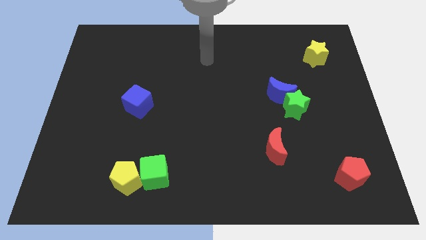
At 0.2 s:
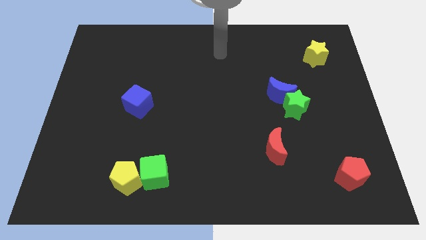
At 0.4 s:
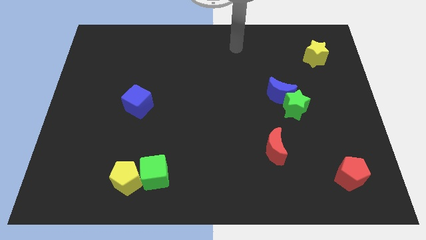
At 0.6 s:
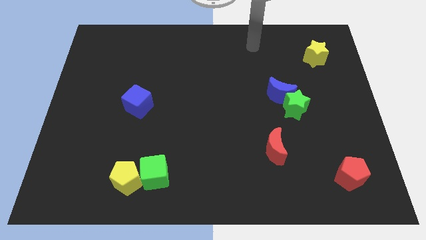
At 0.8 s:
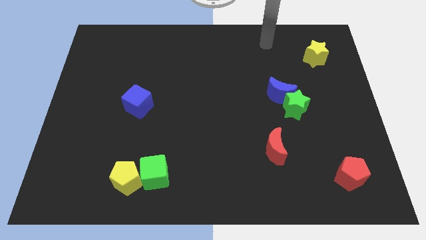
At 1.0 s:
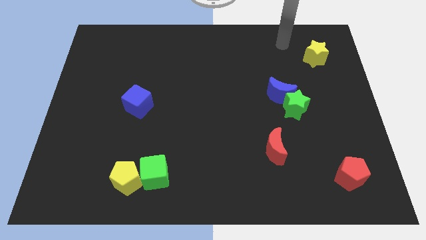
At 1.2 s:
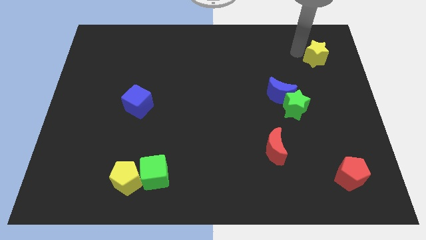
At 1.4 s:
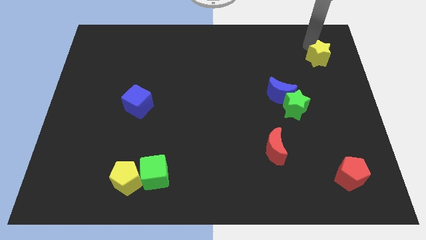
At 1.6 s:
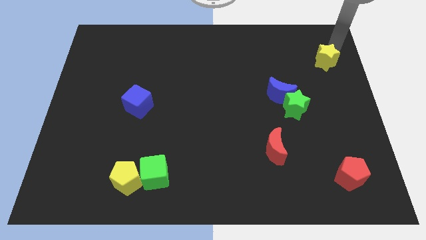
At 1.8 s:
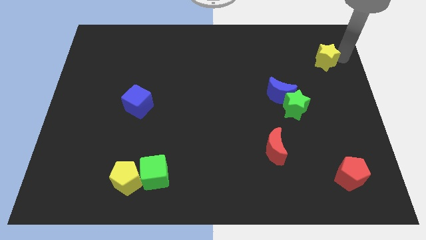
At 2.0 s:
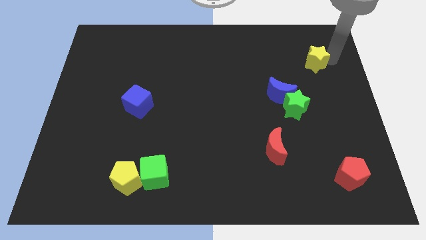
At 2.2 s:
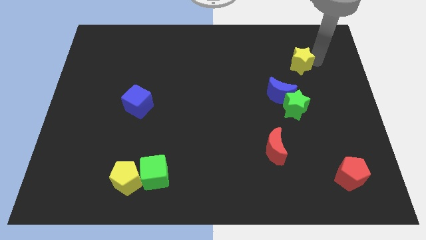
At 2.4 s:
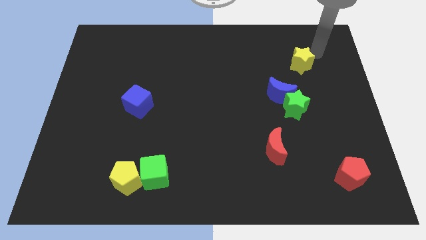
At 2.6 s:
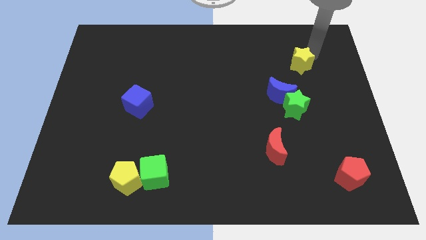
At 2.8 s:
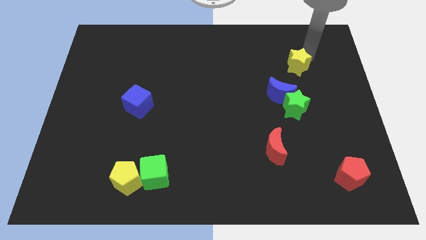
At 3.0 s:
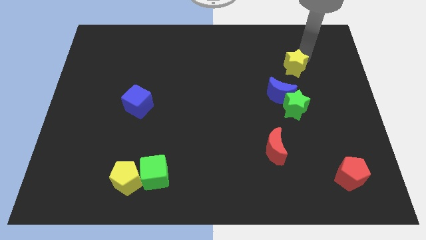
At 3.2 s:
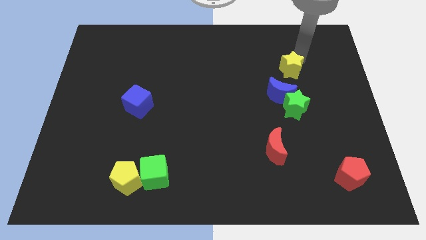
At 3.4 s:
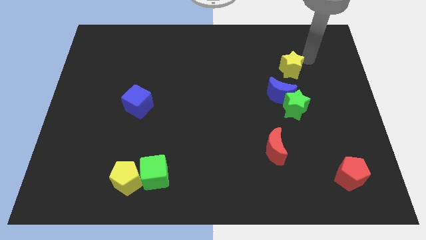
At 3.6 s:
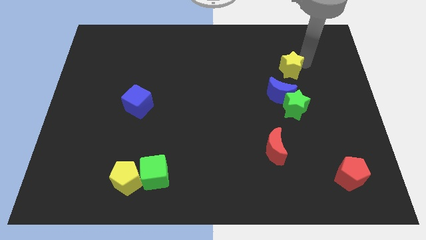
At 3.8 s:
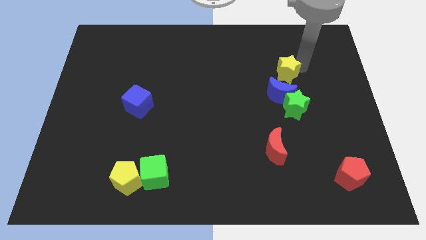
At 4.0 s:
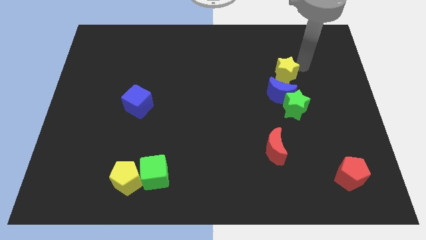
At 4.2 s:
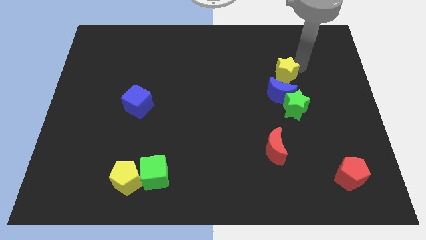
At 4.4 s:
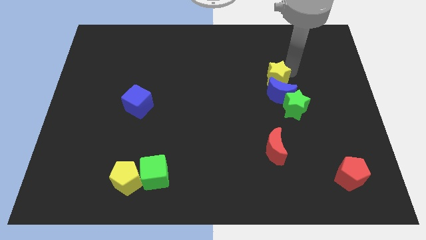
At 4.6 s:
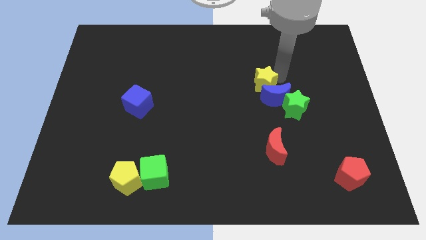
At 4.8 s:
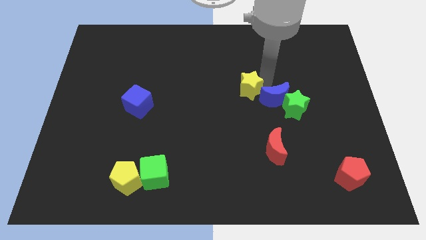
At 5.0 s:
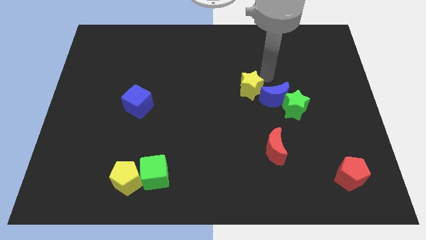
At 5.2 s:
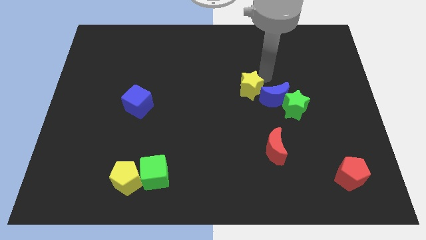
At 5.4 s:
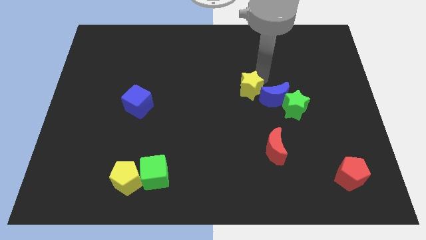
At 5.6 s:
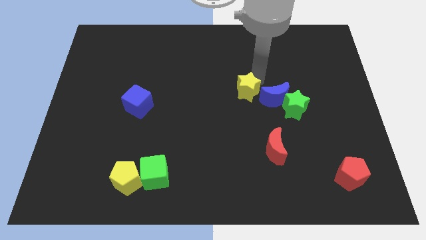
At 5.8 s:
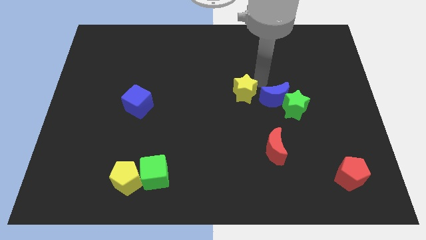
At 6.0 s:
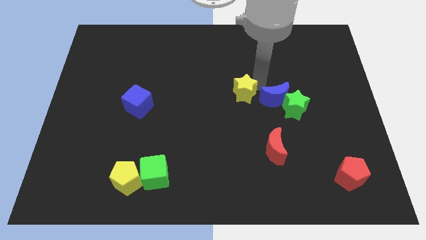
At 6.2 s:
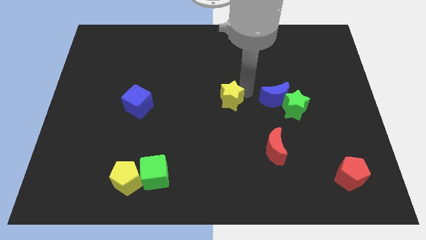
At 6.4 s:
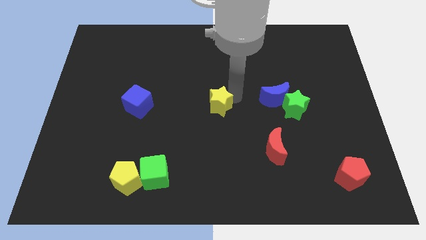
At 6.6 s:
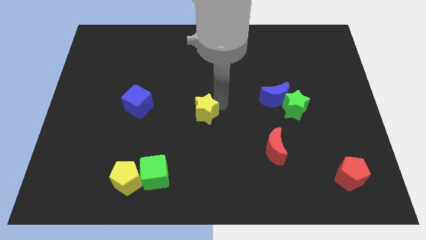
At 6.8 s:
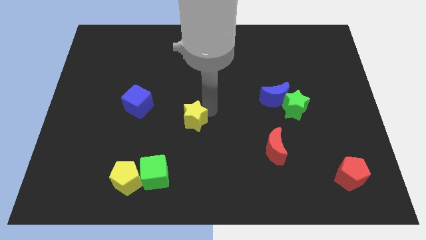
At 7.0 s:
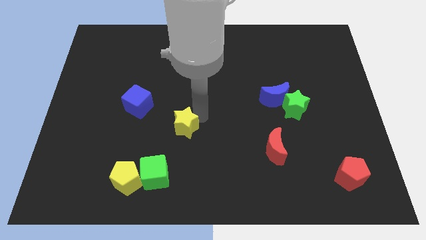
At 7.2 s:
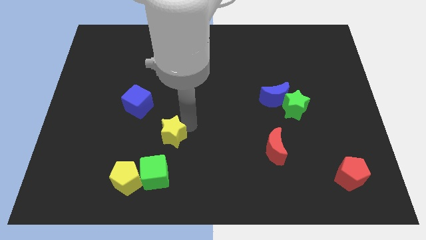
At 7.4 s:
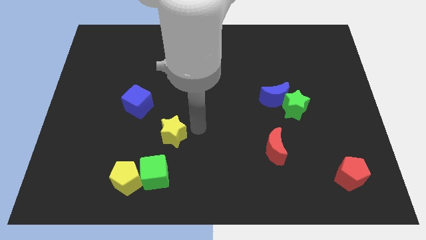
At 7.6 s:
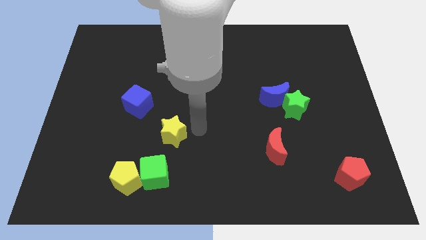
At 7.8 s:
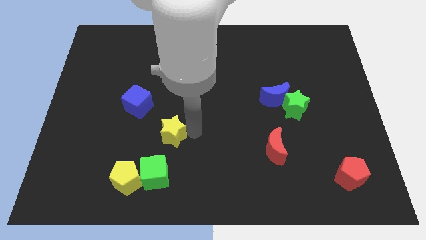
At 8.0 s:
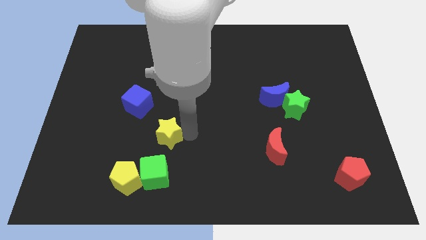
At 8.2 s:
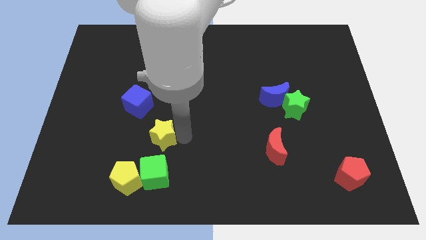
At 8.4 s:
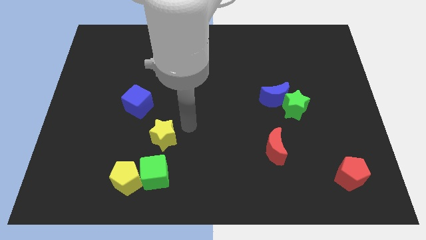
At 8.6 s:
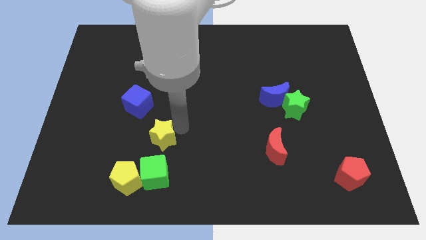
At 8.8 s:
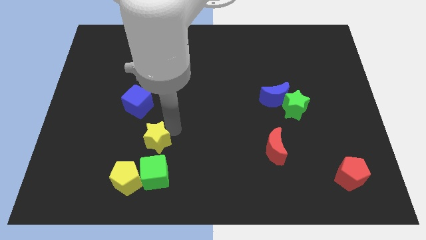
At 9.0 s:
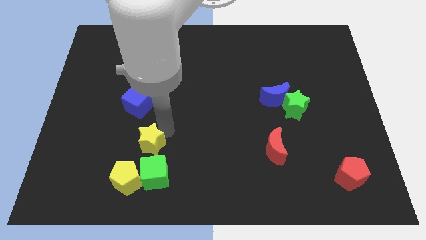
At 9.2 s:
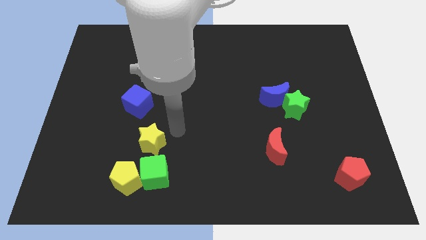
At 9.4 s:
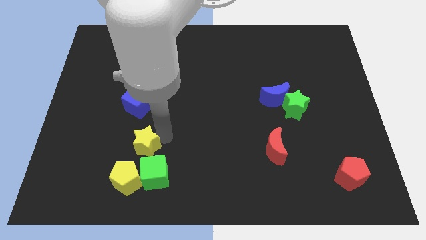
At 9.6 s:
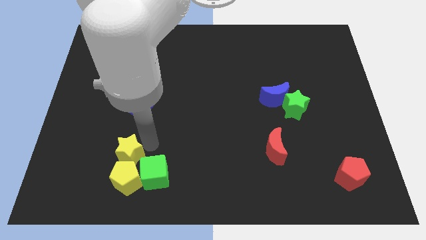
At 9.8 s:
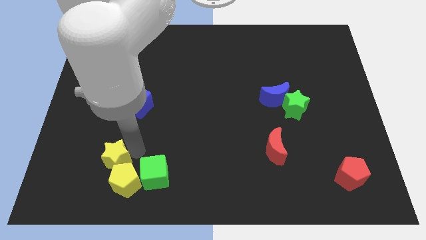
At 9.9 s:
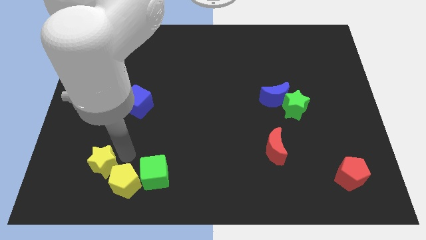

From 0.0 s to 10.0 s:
slide the yellow star to the left of the yellow pentagon

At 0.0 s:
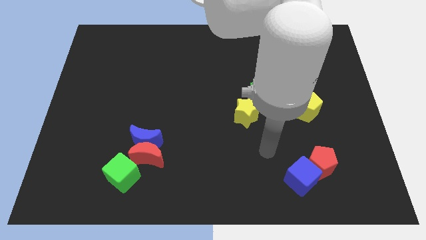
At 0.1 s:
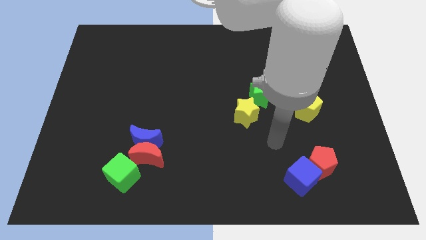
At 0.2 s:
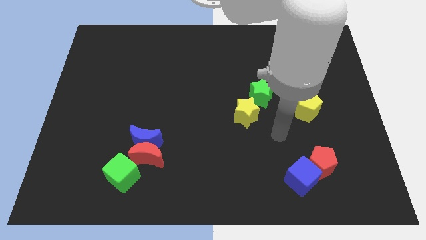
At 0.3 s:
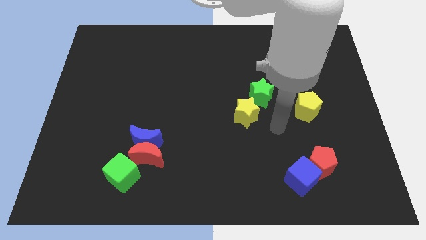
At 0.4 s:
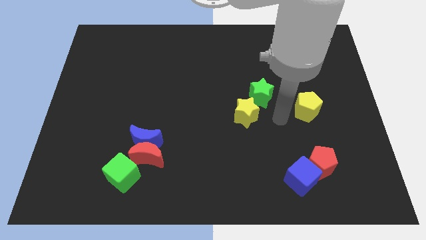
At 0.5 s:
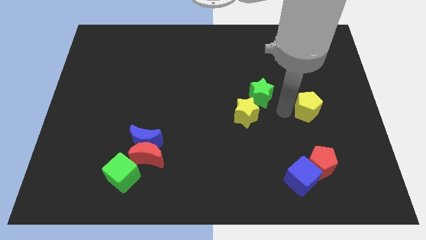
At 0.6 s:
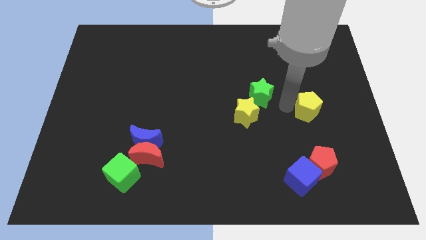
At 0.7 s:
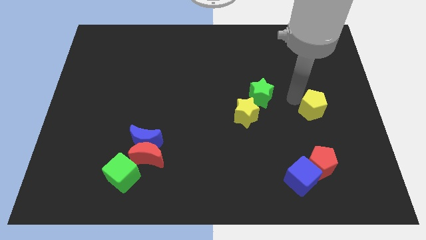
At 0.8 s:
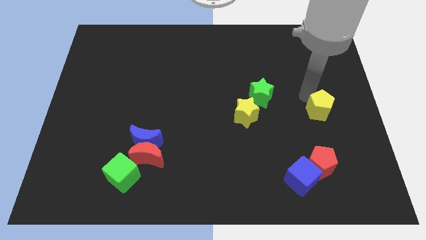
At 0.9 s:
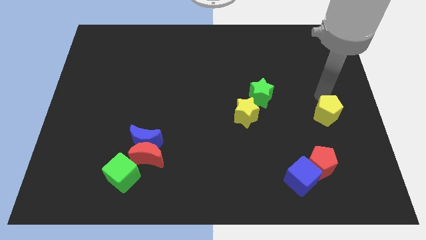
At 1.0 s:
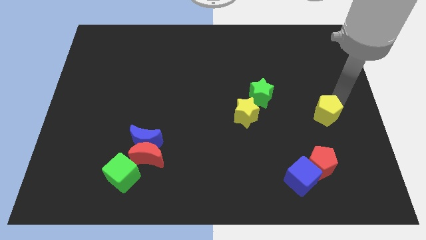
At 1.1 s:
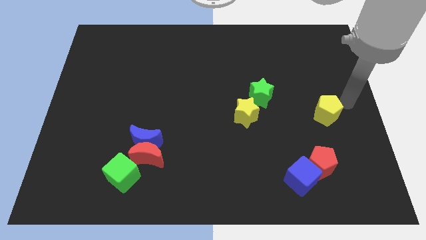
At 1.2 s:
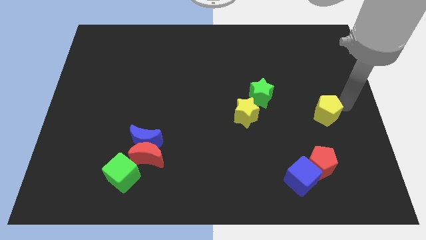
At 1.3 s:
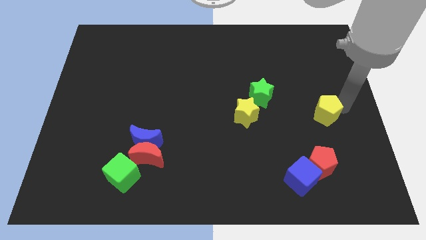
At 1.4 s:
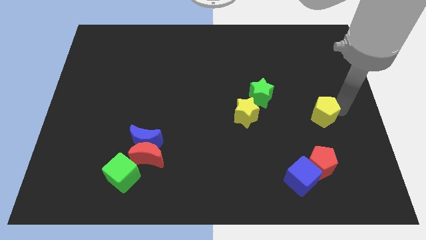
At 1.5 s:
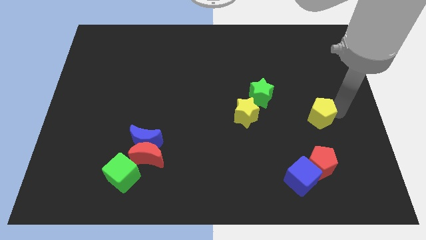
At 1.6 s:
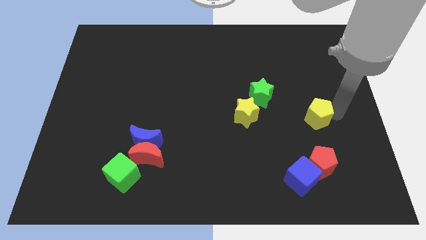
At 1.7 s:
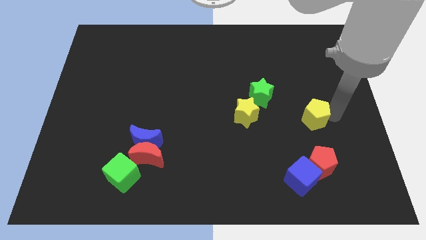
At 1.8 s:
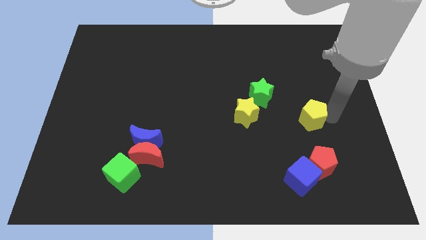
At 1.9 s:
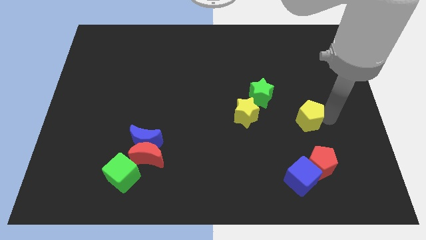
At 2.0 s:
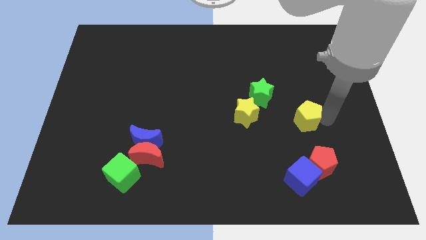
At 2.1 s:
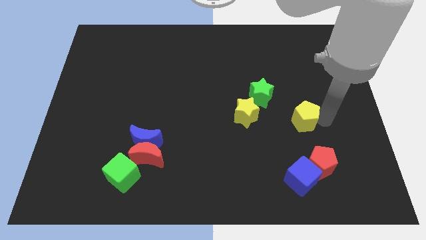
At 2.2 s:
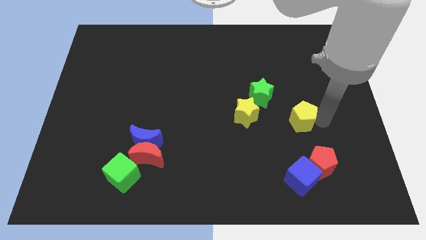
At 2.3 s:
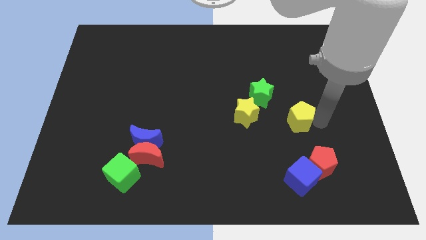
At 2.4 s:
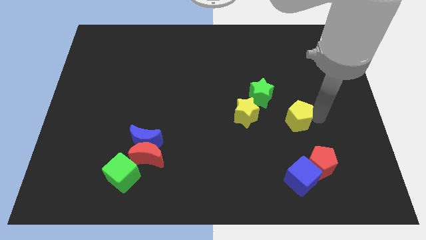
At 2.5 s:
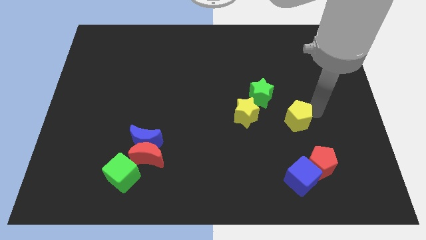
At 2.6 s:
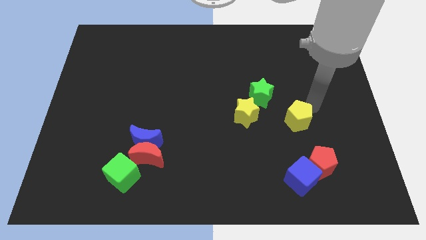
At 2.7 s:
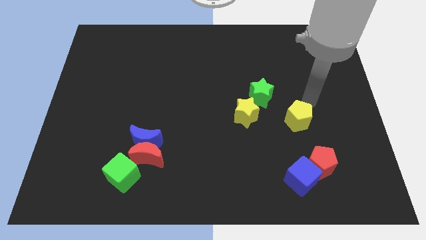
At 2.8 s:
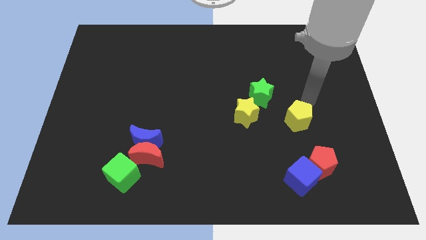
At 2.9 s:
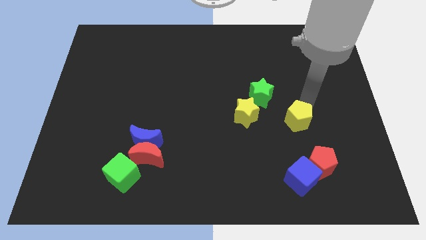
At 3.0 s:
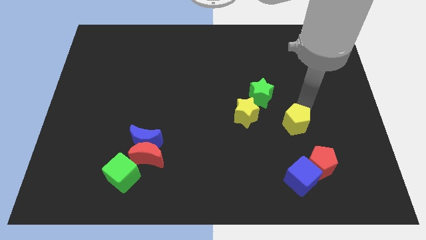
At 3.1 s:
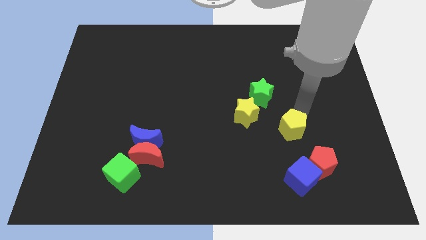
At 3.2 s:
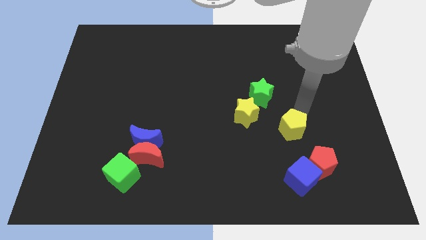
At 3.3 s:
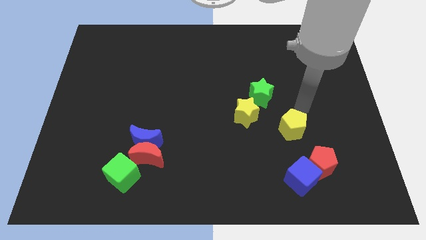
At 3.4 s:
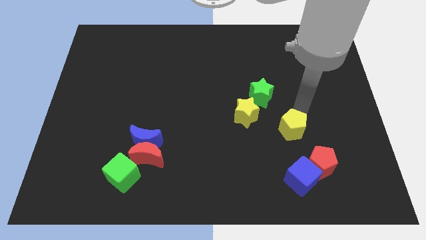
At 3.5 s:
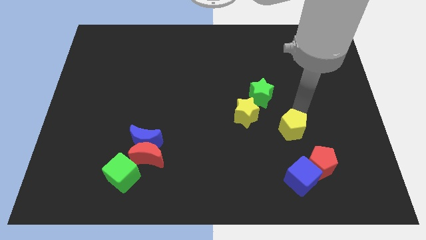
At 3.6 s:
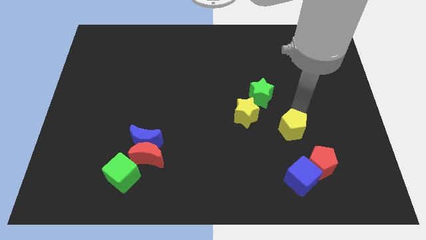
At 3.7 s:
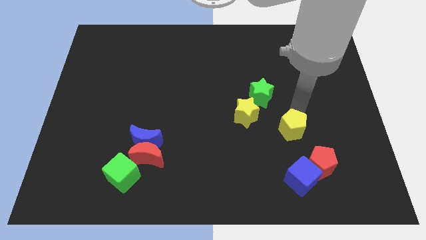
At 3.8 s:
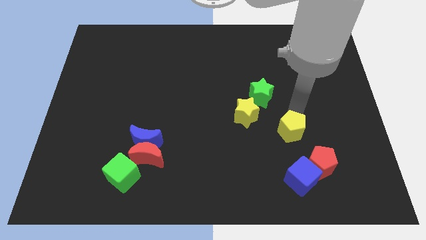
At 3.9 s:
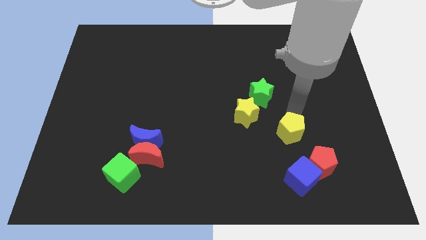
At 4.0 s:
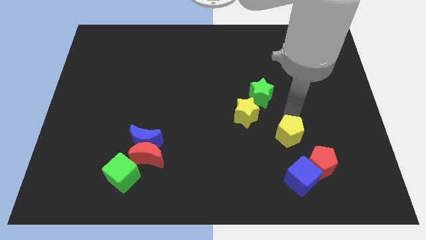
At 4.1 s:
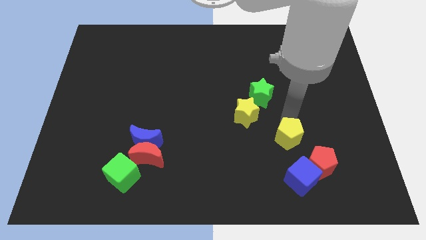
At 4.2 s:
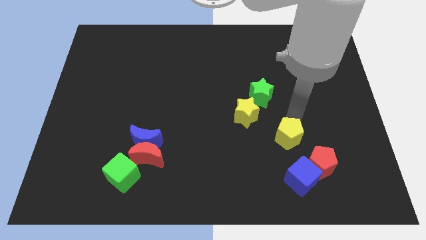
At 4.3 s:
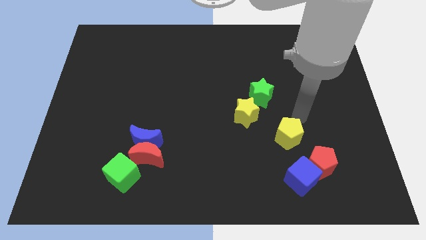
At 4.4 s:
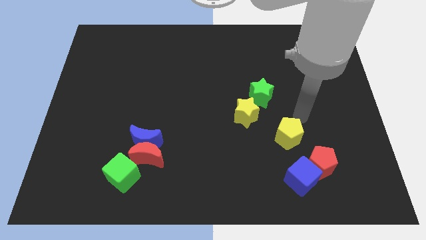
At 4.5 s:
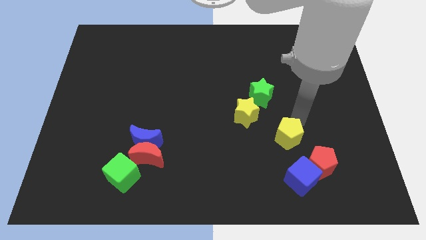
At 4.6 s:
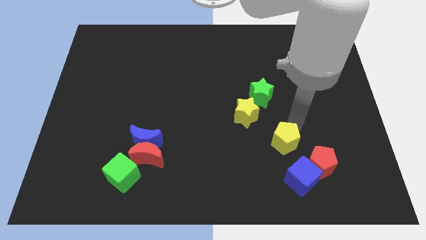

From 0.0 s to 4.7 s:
slide the yellow pentagon to the top left of the blue cube
